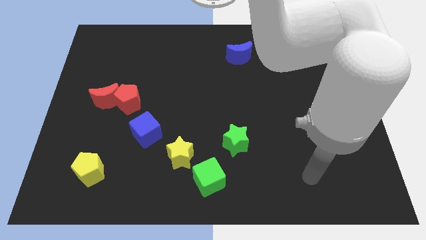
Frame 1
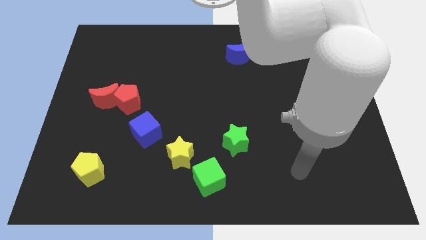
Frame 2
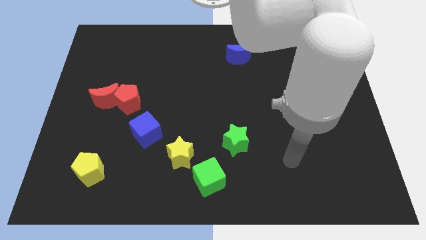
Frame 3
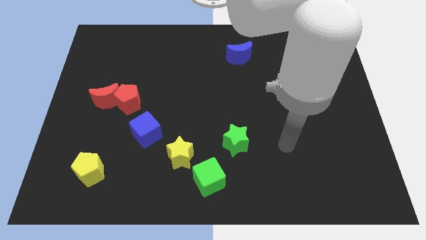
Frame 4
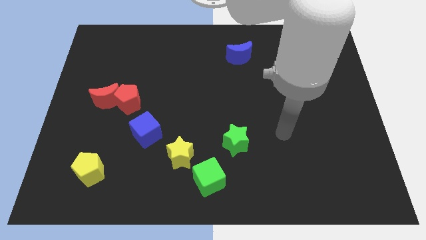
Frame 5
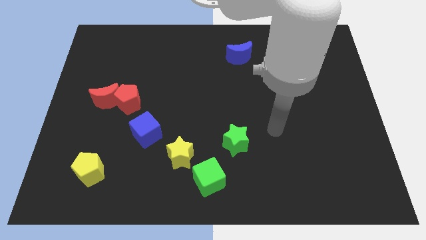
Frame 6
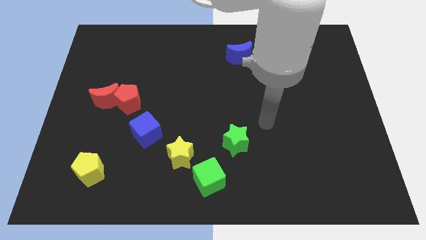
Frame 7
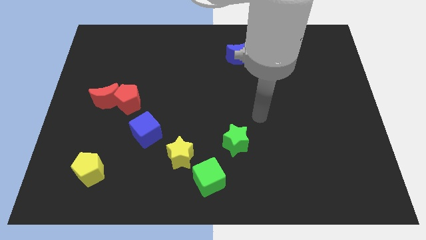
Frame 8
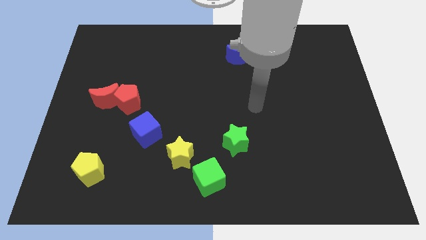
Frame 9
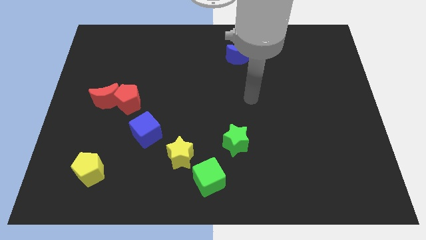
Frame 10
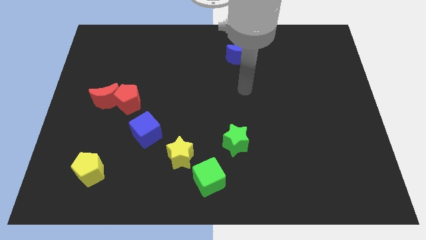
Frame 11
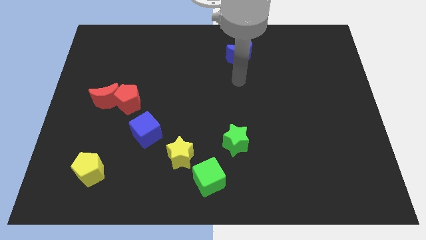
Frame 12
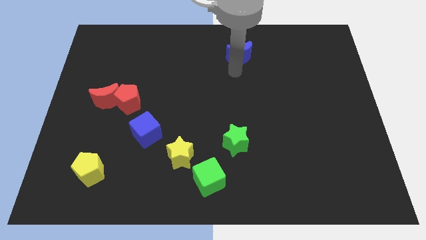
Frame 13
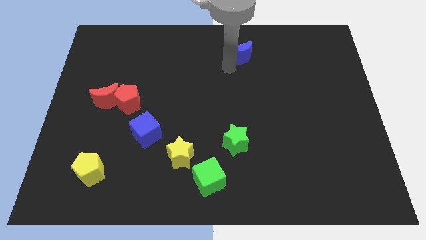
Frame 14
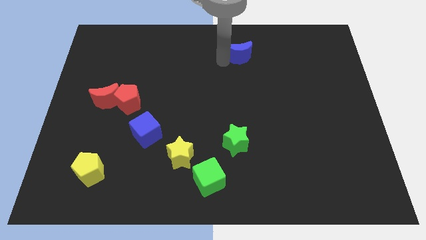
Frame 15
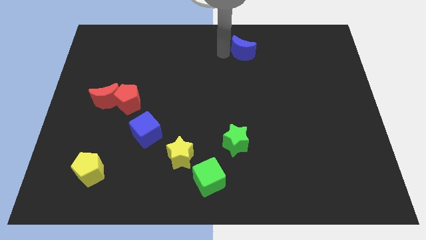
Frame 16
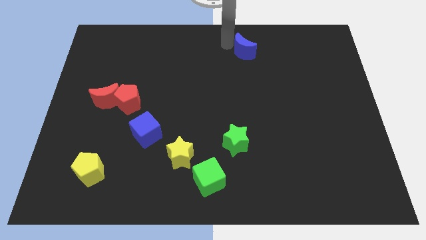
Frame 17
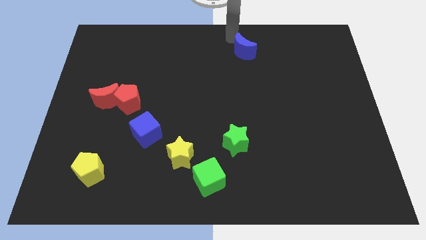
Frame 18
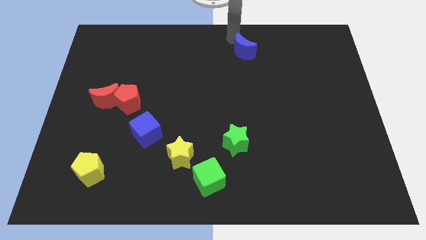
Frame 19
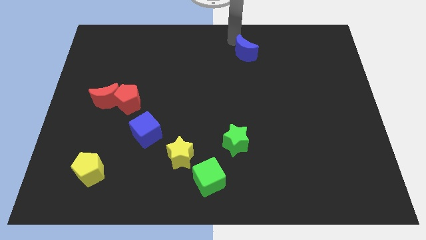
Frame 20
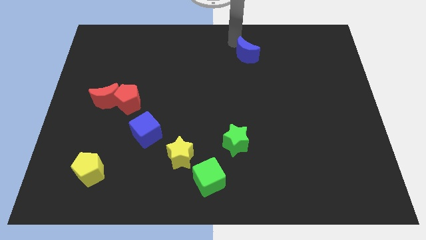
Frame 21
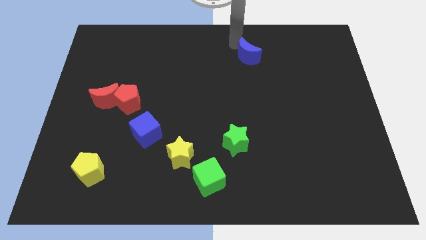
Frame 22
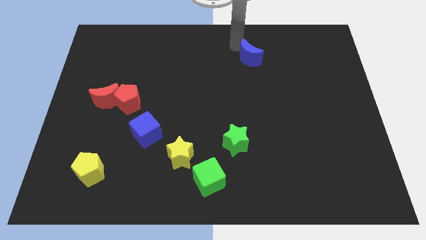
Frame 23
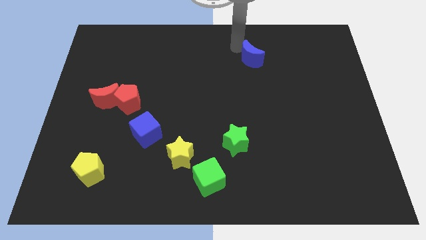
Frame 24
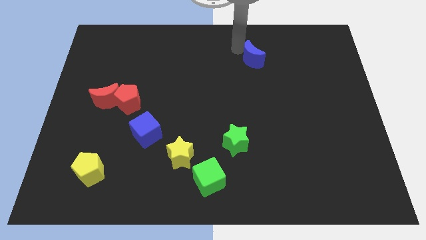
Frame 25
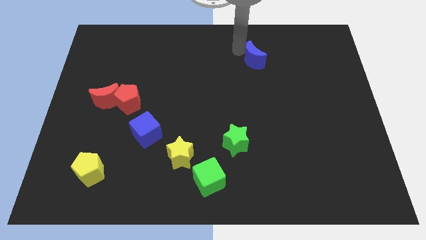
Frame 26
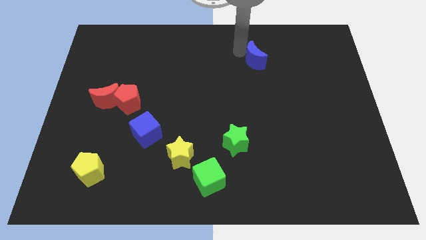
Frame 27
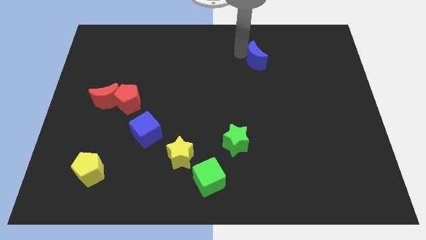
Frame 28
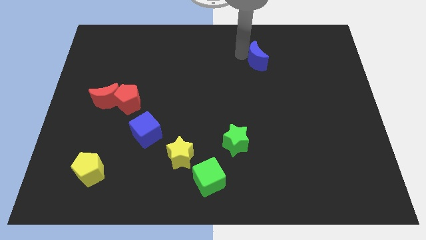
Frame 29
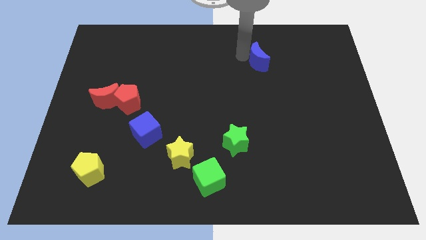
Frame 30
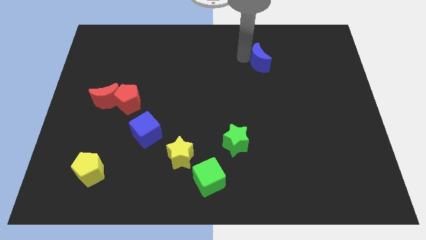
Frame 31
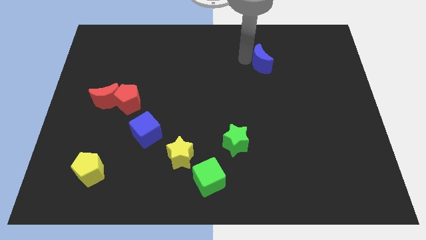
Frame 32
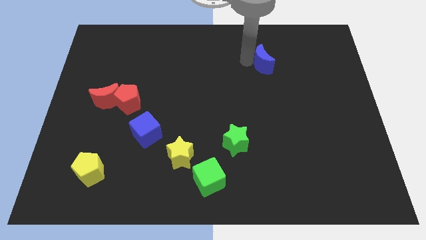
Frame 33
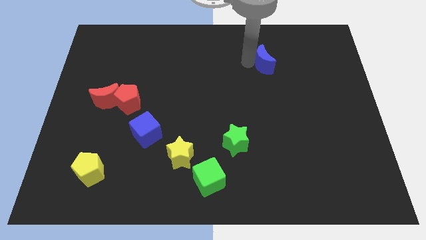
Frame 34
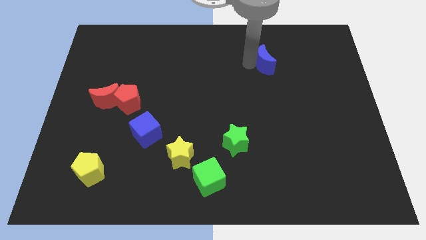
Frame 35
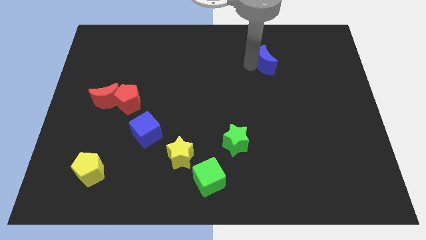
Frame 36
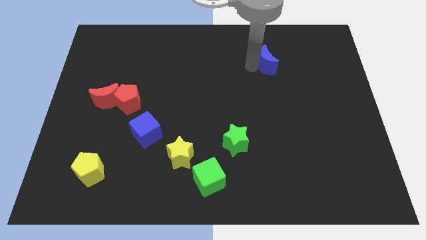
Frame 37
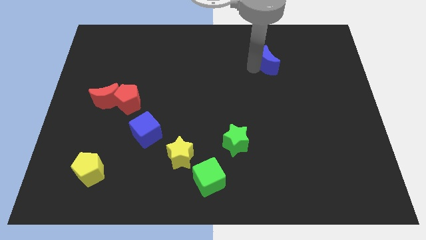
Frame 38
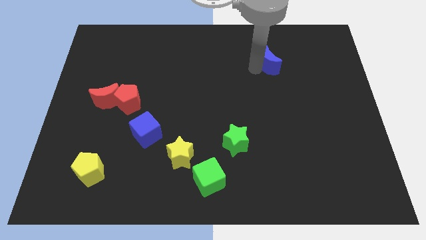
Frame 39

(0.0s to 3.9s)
slightly move the blue moon downwards and to the right

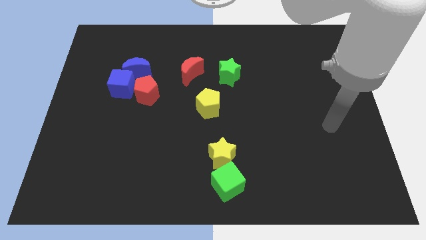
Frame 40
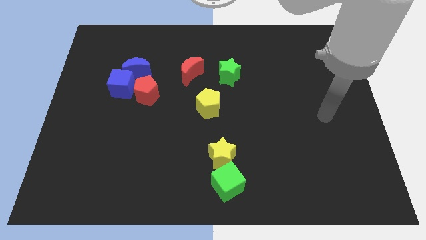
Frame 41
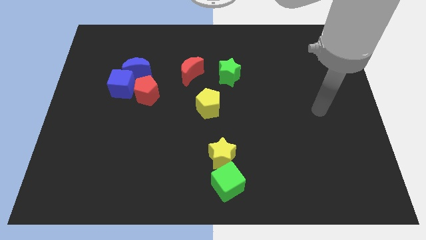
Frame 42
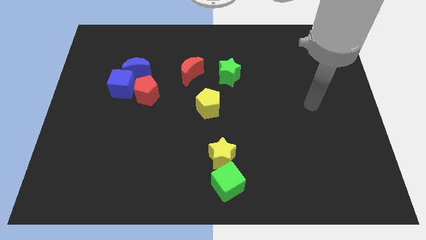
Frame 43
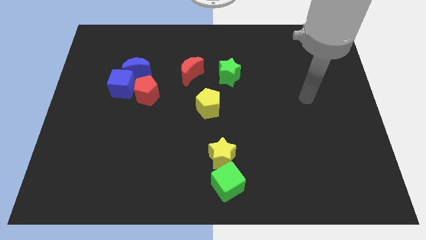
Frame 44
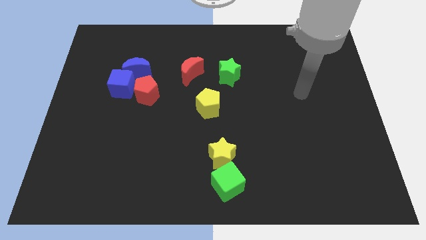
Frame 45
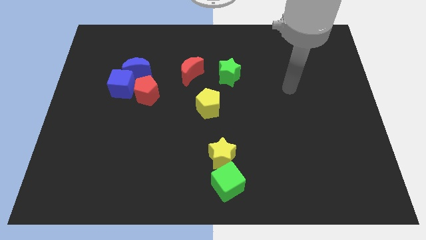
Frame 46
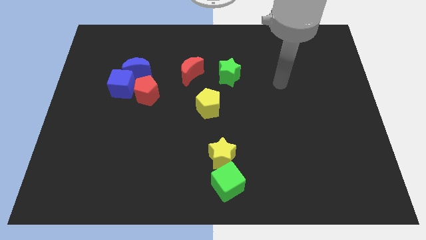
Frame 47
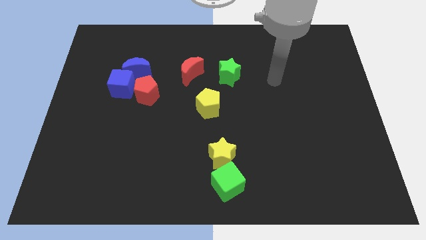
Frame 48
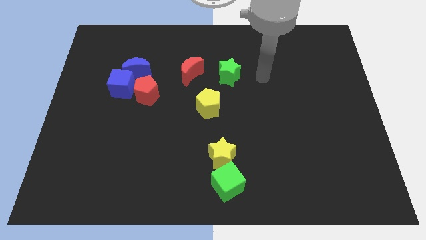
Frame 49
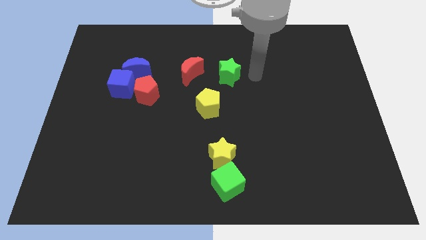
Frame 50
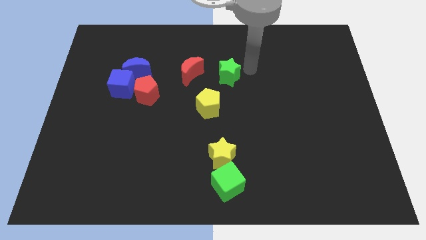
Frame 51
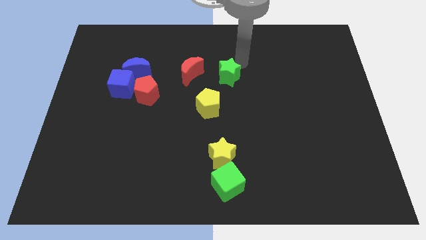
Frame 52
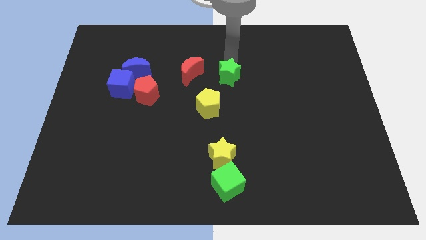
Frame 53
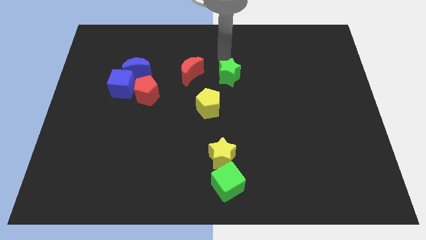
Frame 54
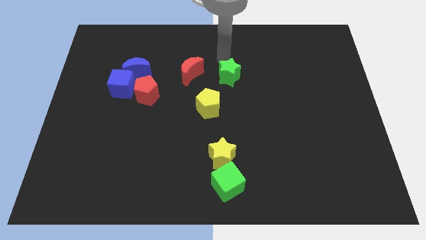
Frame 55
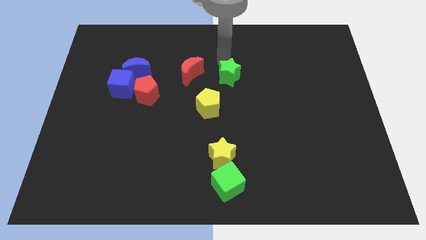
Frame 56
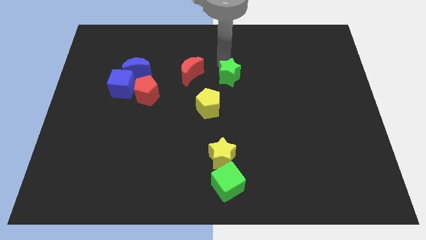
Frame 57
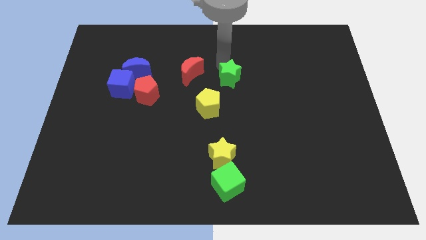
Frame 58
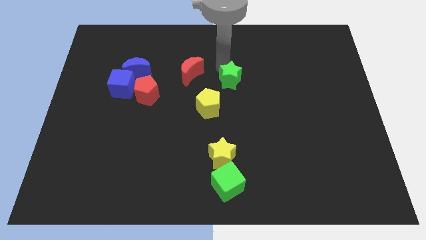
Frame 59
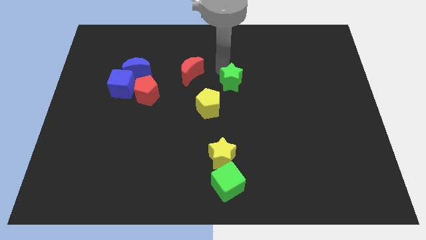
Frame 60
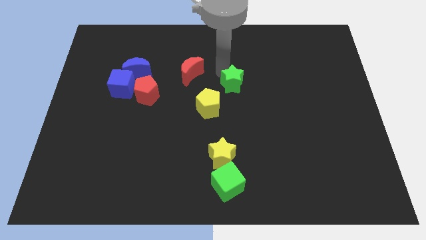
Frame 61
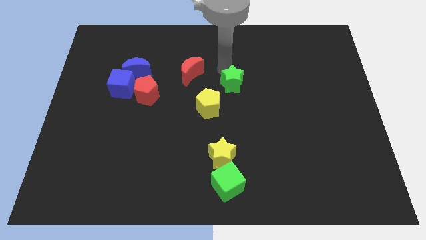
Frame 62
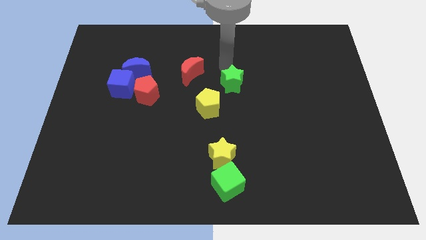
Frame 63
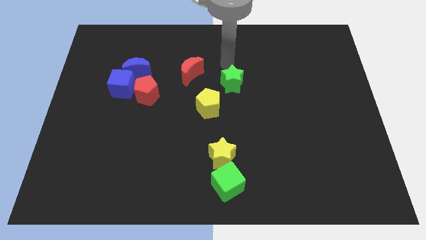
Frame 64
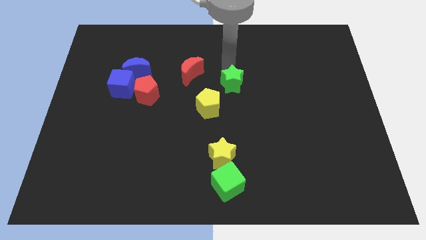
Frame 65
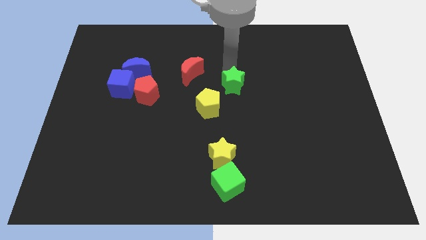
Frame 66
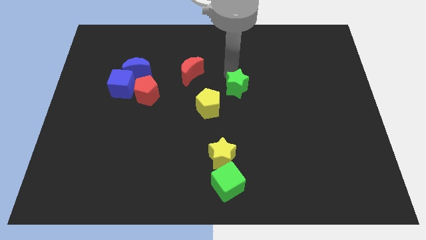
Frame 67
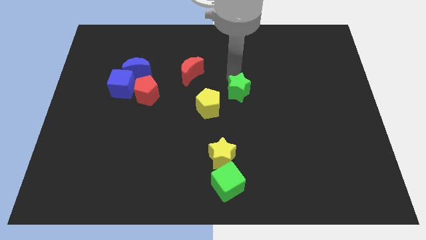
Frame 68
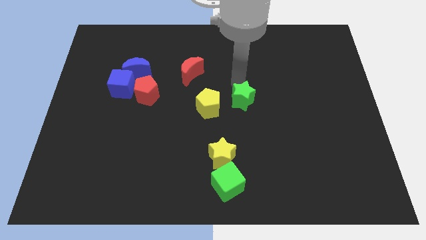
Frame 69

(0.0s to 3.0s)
push the green star a little downwards

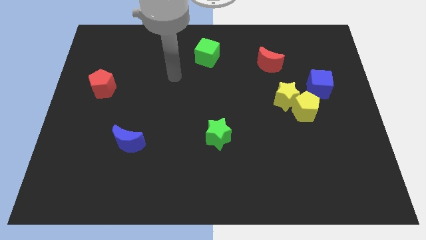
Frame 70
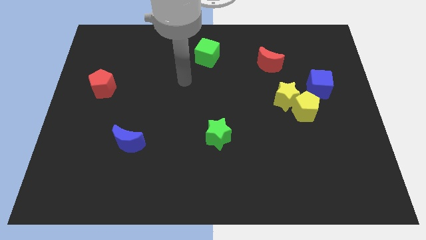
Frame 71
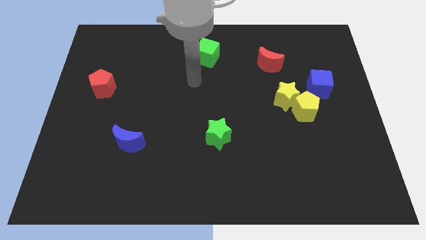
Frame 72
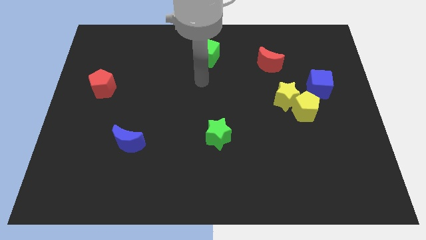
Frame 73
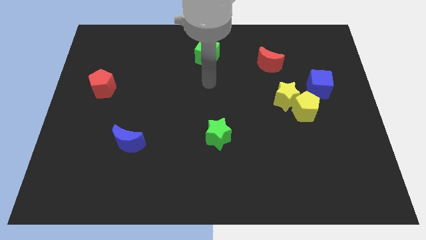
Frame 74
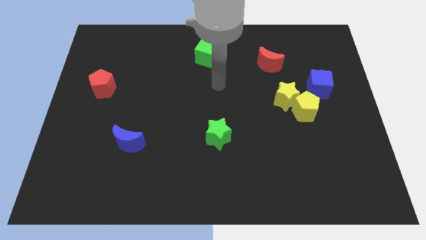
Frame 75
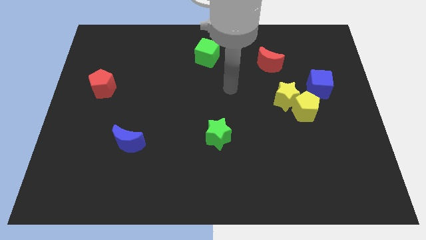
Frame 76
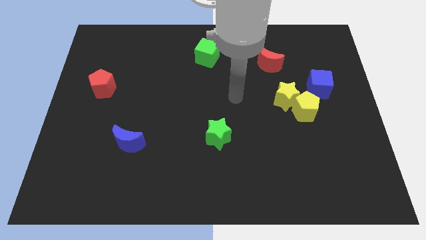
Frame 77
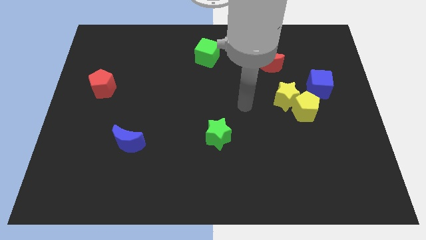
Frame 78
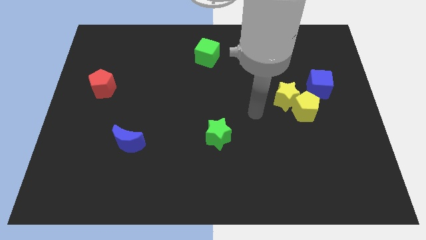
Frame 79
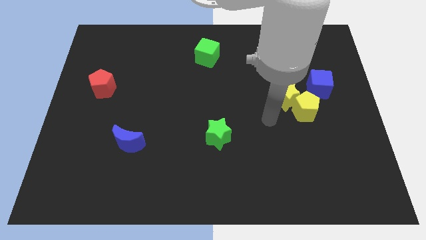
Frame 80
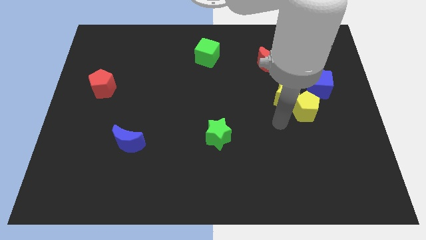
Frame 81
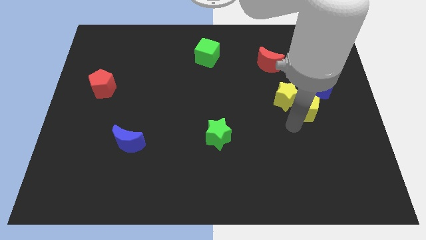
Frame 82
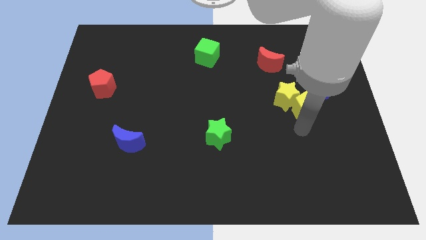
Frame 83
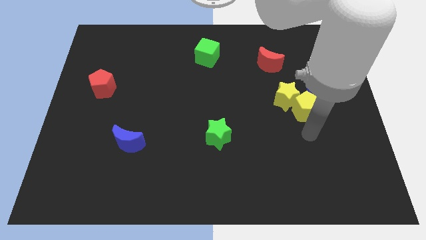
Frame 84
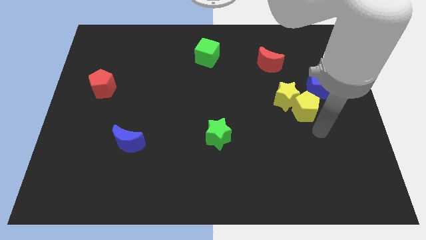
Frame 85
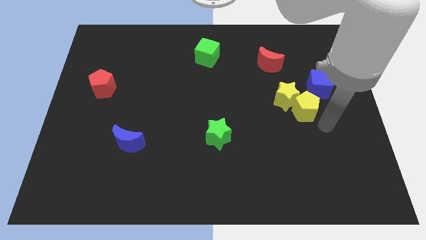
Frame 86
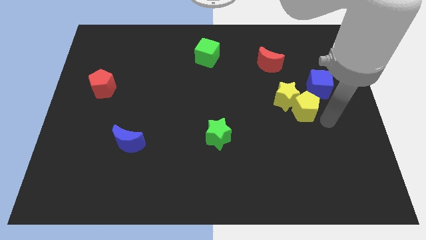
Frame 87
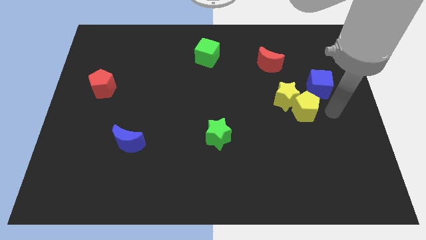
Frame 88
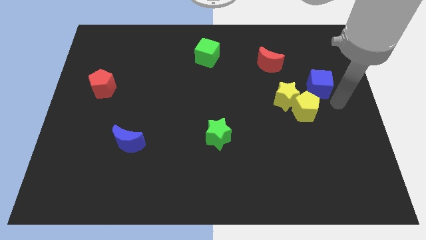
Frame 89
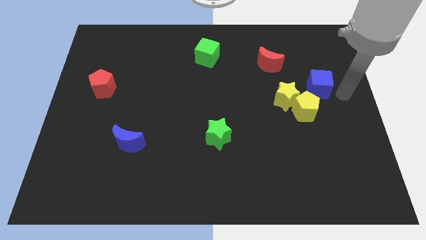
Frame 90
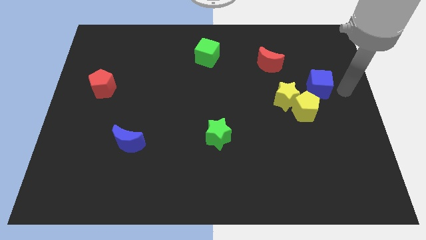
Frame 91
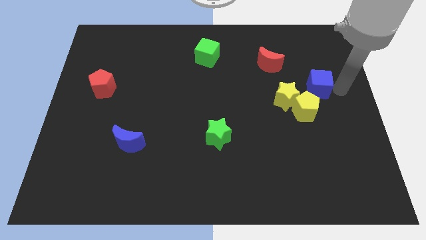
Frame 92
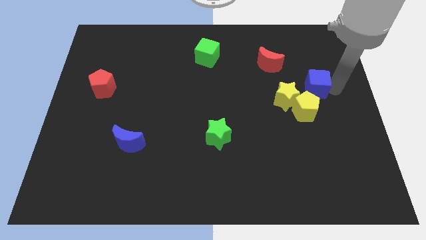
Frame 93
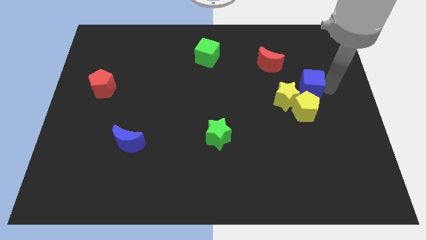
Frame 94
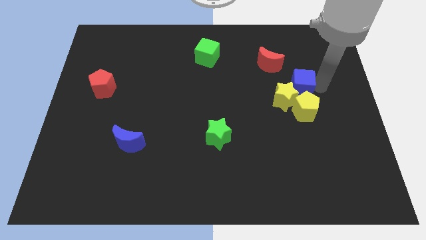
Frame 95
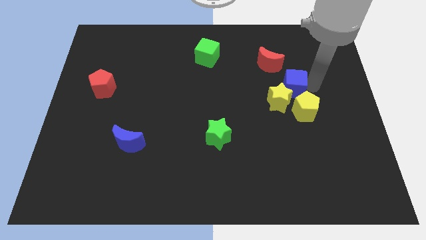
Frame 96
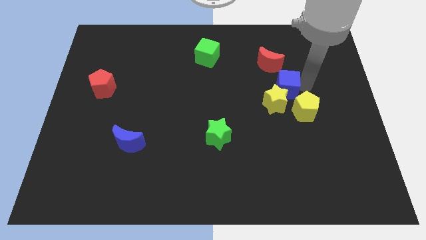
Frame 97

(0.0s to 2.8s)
push the blue cube a little bit to the left
